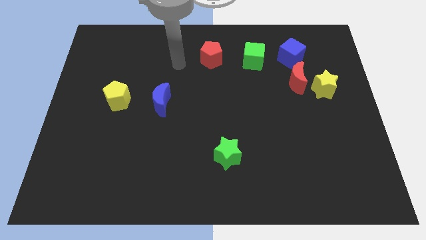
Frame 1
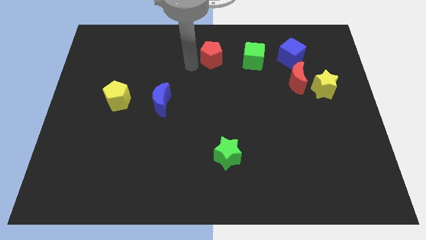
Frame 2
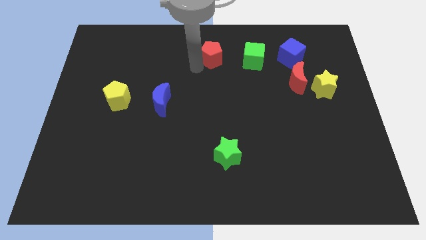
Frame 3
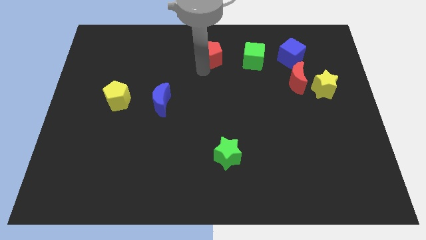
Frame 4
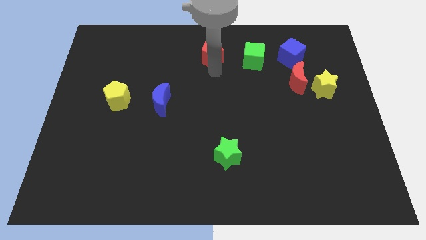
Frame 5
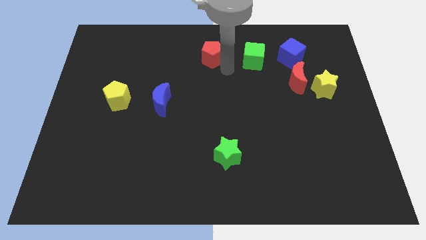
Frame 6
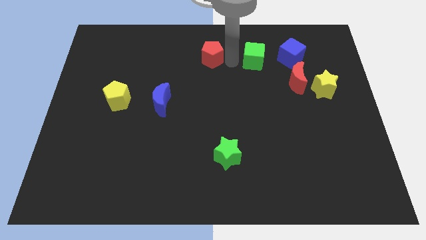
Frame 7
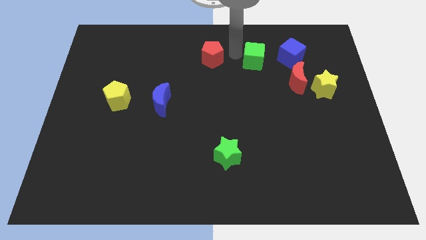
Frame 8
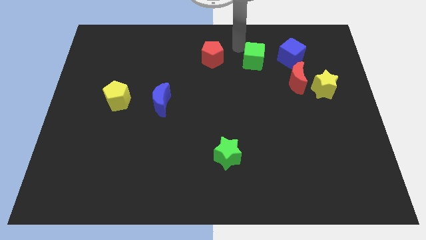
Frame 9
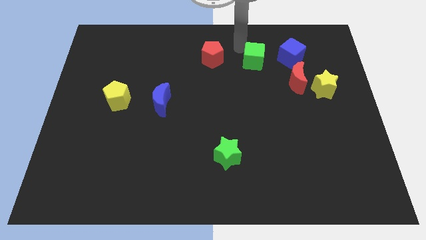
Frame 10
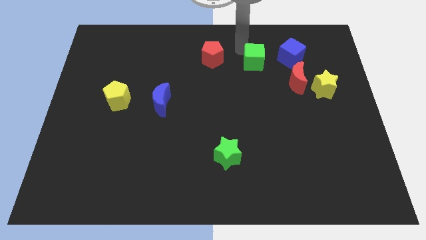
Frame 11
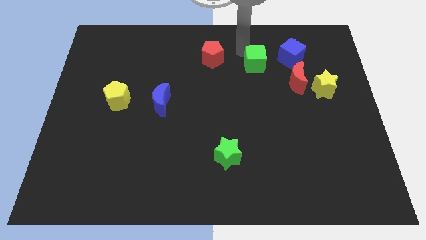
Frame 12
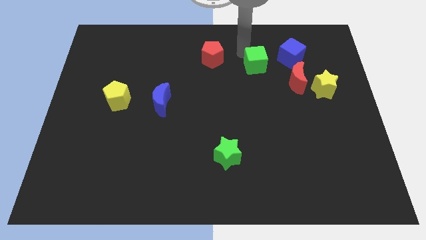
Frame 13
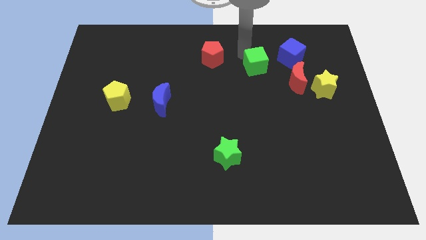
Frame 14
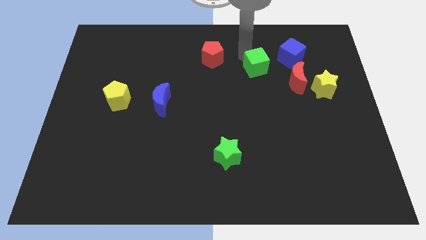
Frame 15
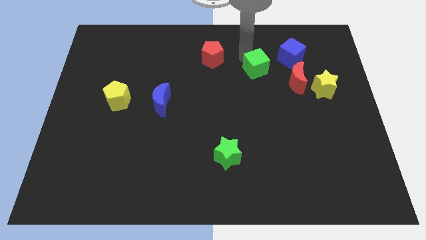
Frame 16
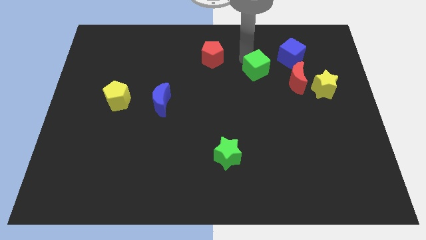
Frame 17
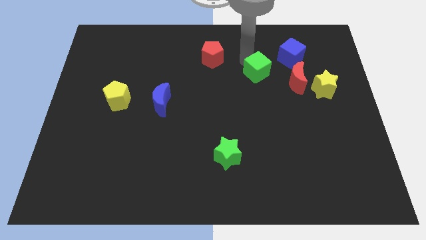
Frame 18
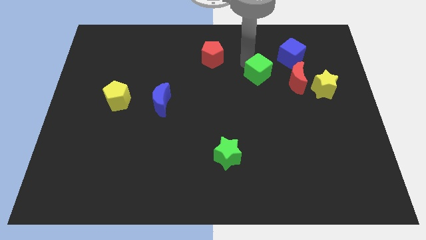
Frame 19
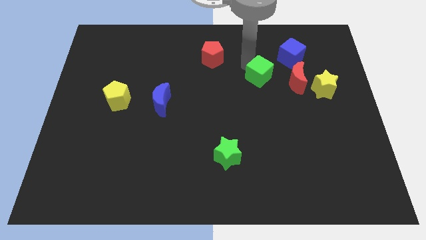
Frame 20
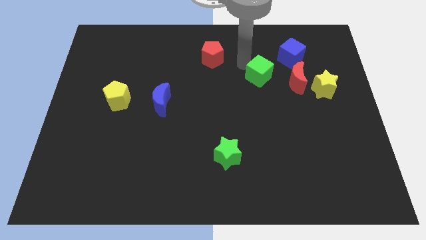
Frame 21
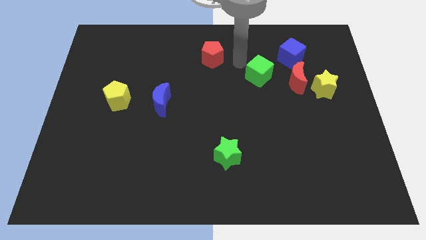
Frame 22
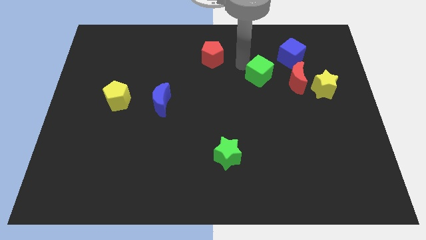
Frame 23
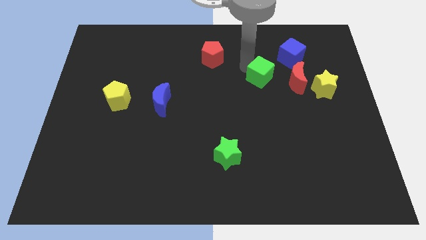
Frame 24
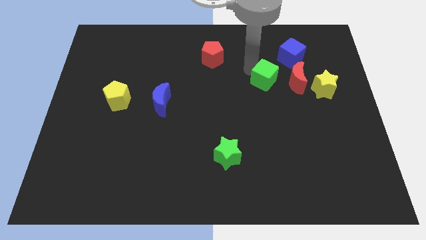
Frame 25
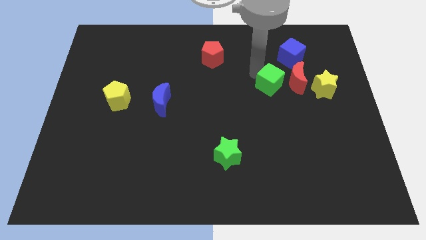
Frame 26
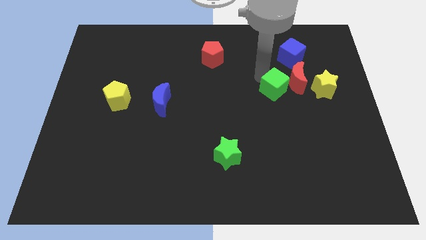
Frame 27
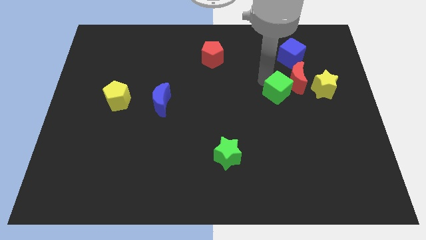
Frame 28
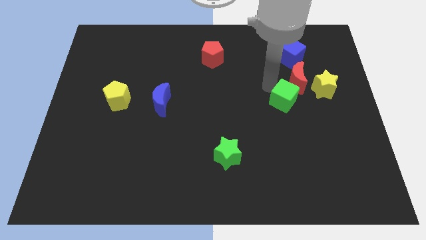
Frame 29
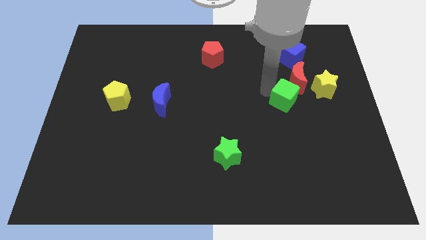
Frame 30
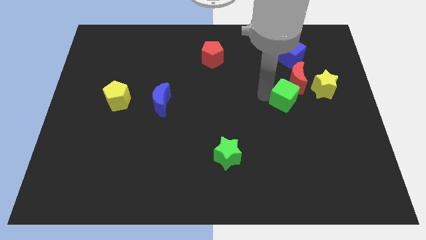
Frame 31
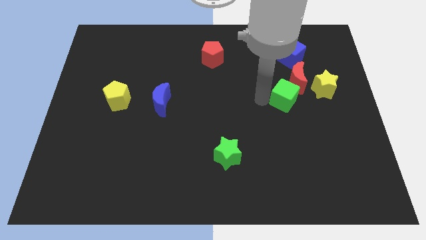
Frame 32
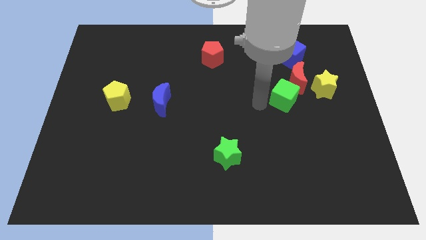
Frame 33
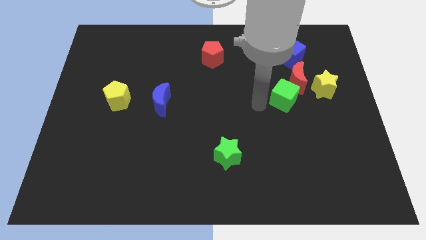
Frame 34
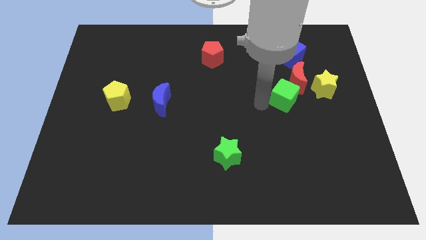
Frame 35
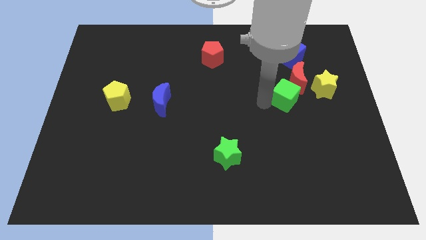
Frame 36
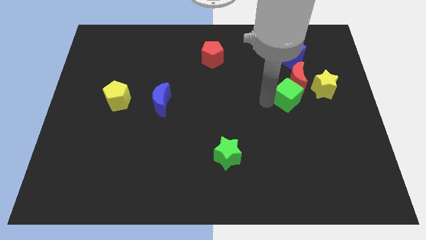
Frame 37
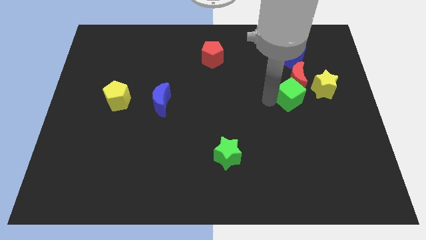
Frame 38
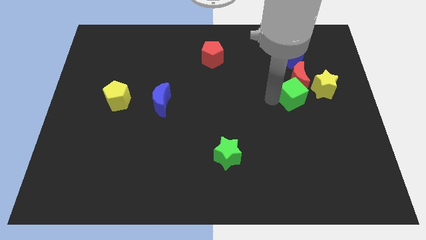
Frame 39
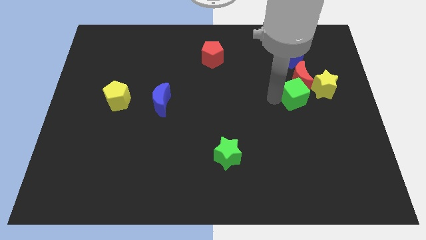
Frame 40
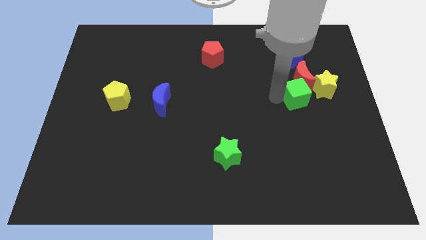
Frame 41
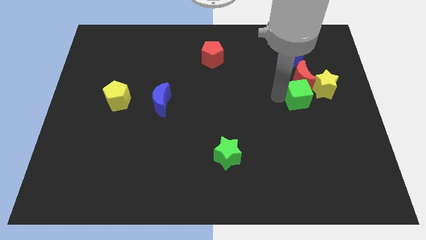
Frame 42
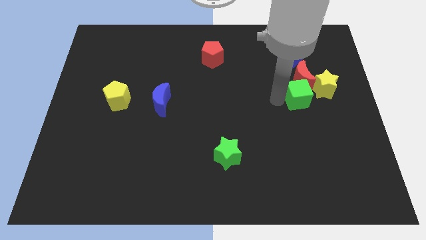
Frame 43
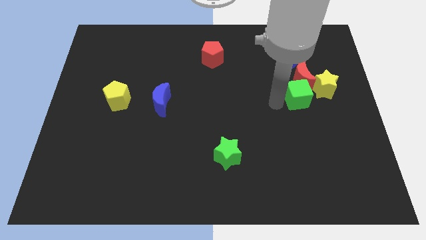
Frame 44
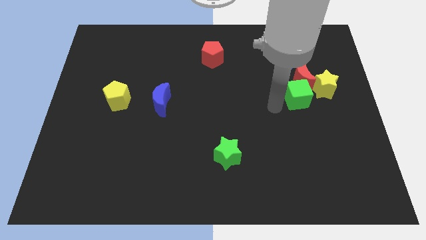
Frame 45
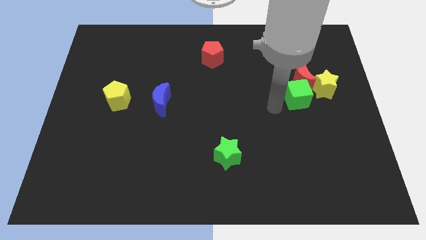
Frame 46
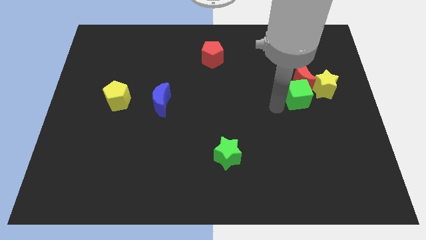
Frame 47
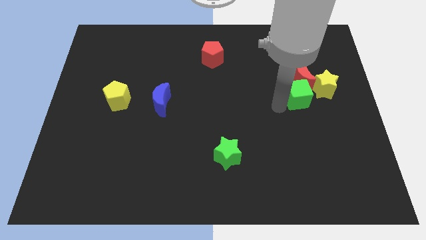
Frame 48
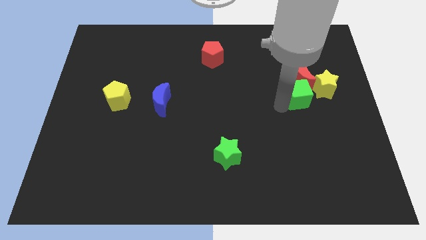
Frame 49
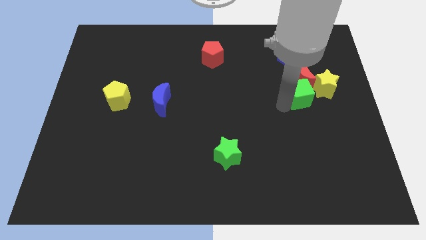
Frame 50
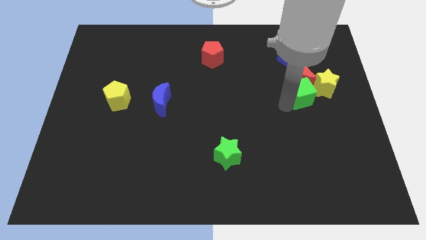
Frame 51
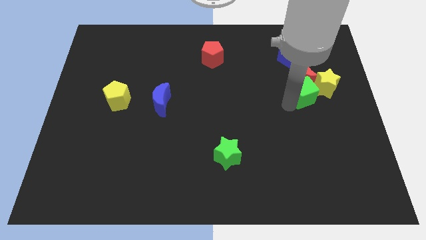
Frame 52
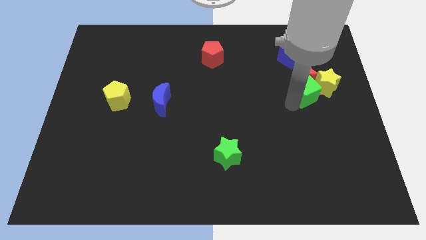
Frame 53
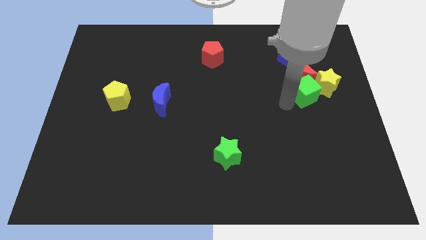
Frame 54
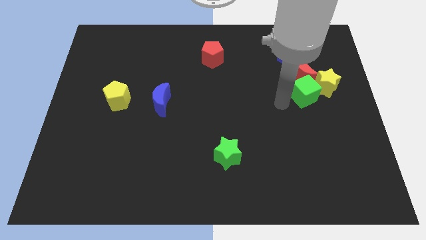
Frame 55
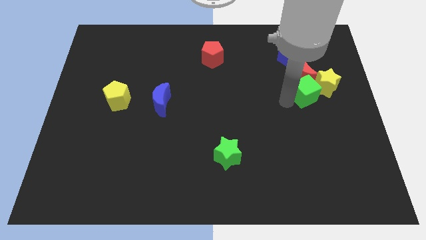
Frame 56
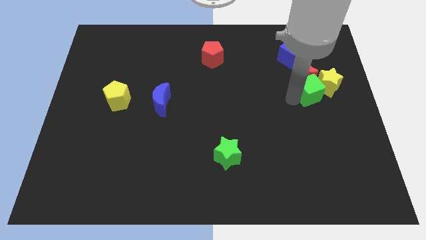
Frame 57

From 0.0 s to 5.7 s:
slide the green cube close to the yellow star

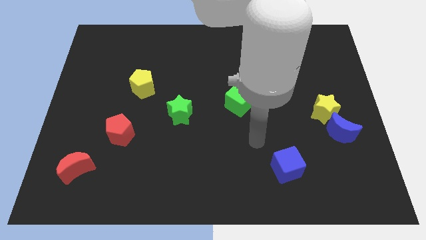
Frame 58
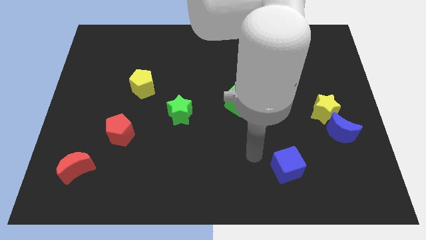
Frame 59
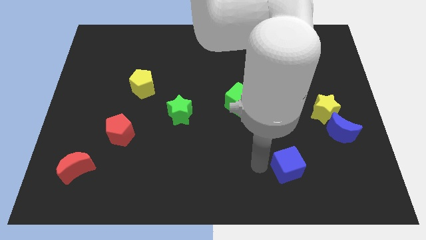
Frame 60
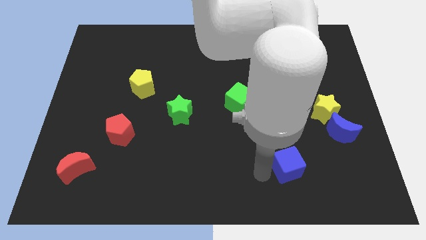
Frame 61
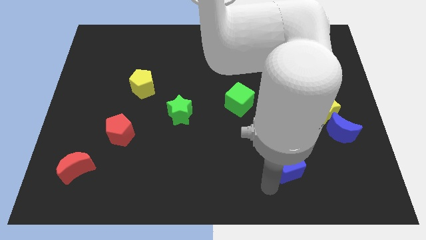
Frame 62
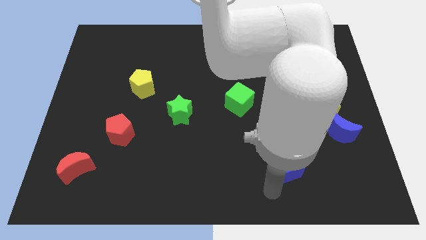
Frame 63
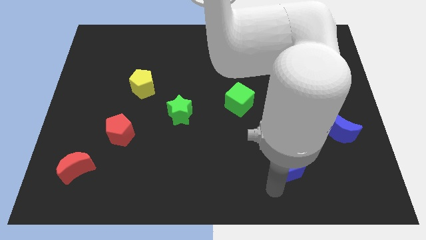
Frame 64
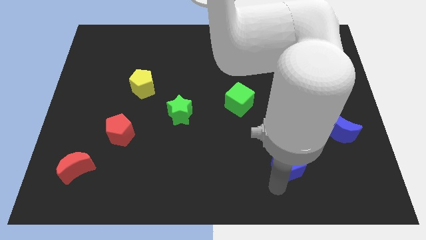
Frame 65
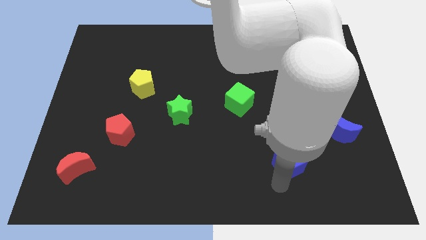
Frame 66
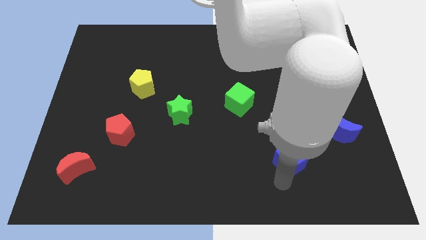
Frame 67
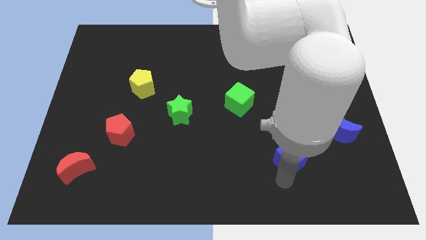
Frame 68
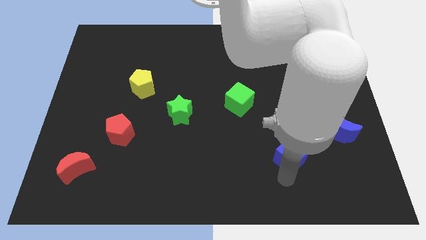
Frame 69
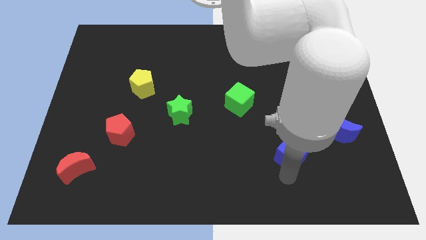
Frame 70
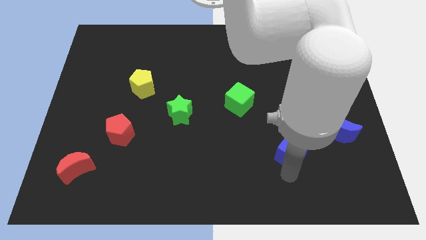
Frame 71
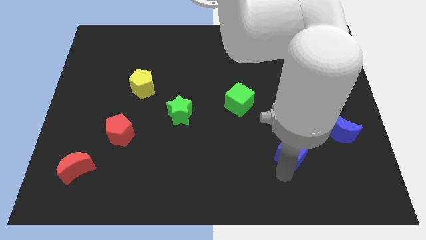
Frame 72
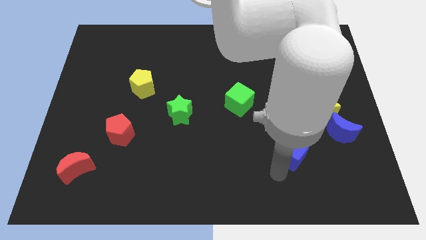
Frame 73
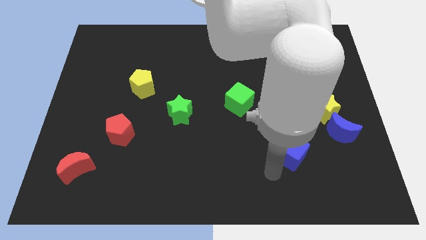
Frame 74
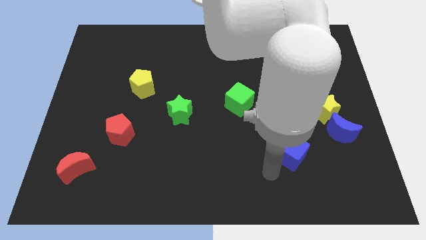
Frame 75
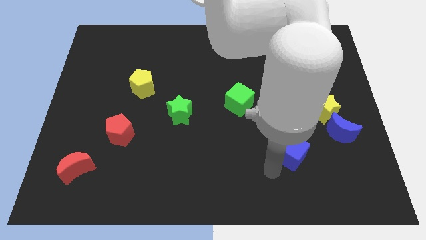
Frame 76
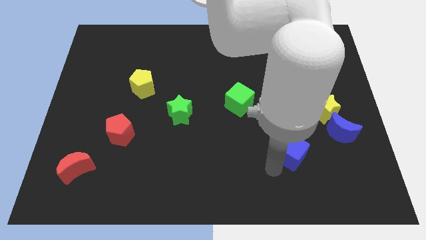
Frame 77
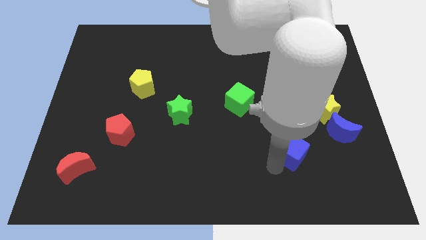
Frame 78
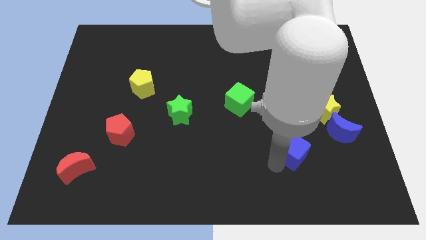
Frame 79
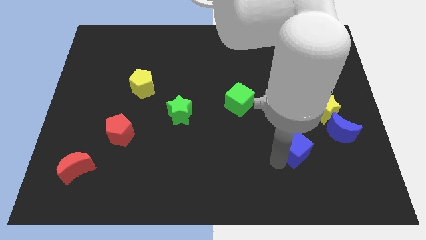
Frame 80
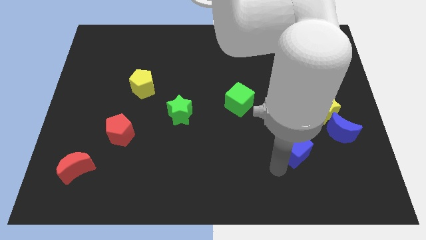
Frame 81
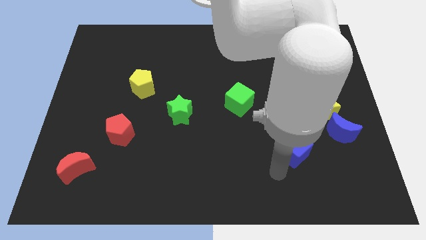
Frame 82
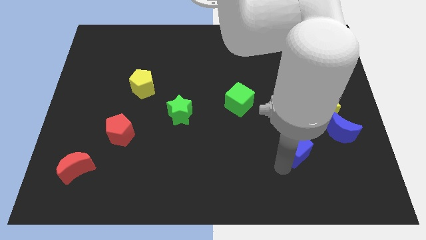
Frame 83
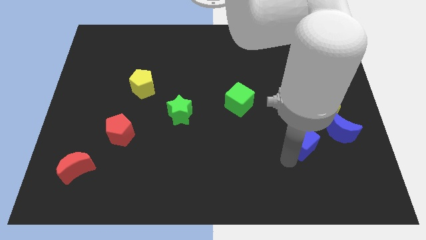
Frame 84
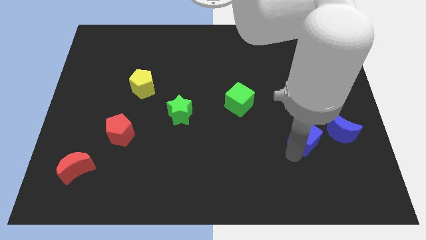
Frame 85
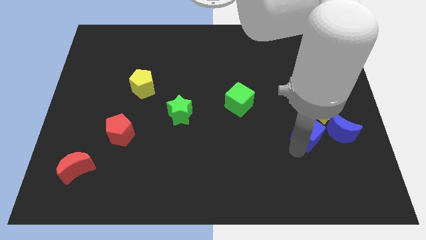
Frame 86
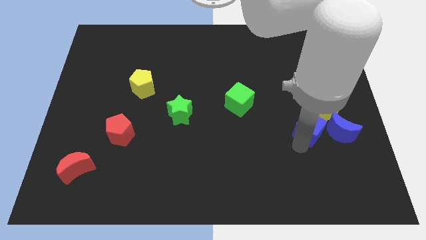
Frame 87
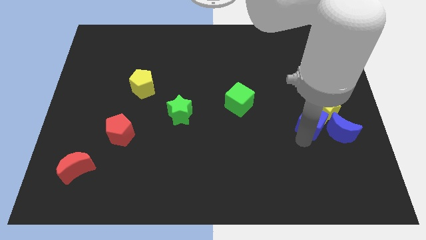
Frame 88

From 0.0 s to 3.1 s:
push the blue cube next to the yellow star
